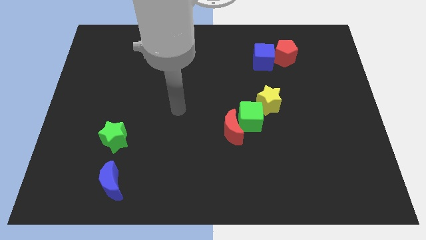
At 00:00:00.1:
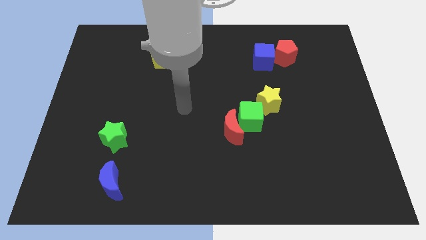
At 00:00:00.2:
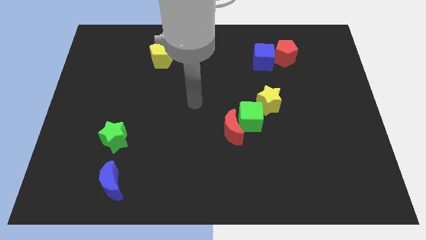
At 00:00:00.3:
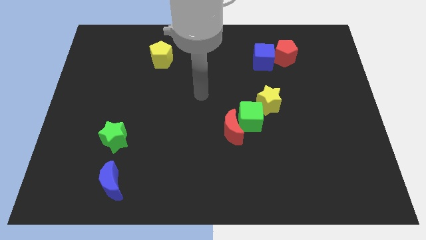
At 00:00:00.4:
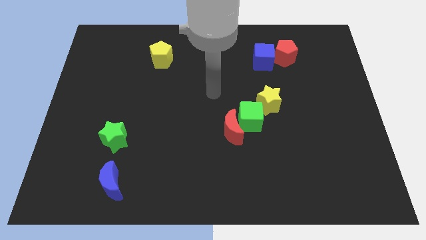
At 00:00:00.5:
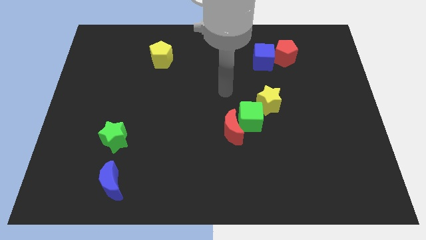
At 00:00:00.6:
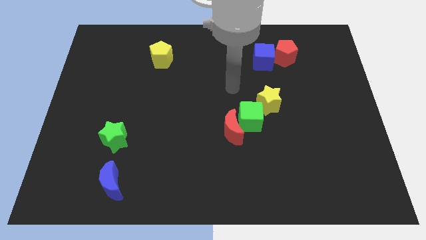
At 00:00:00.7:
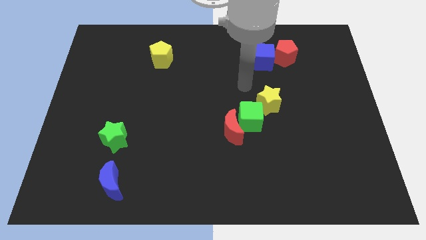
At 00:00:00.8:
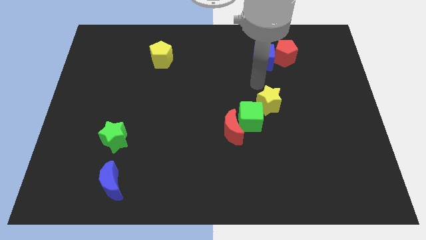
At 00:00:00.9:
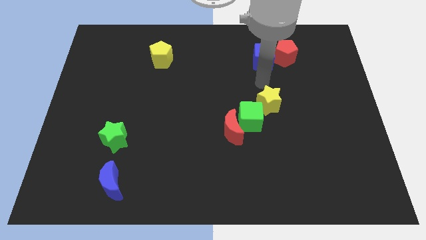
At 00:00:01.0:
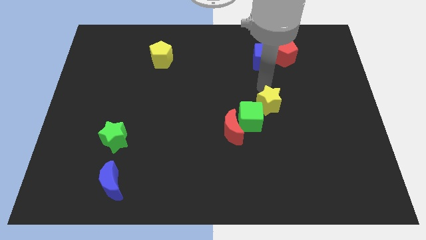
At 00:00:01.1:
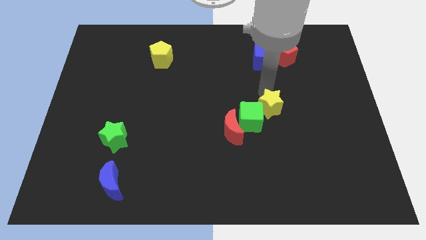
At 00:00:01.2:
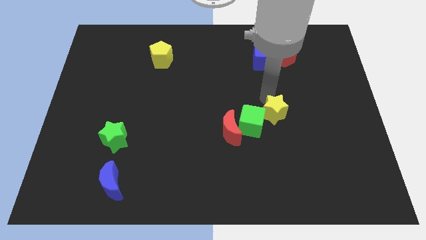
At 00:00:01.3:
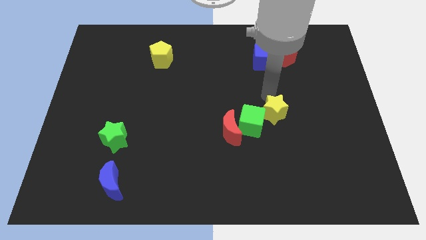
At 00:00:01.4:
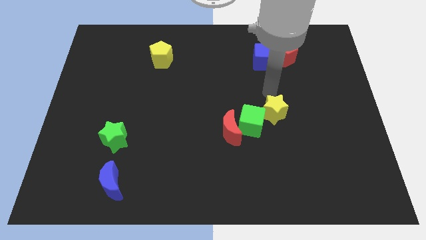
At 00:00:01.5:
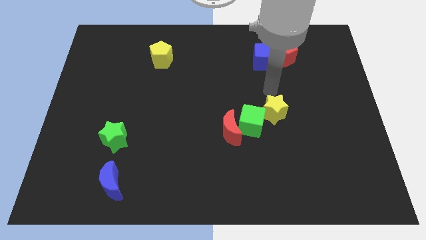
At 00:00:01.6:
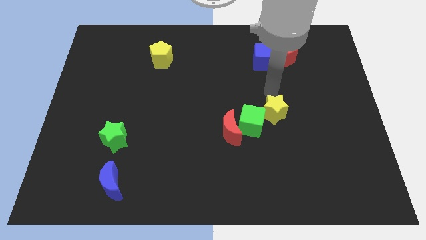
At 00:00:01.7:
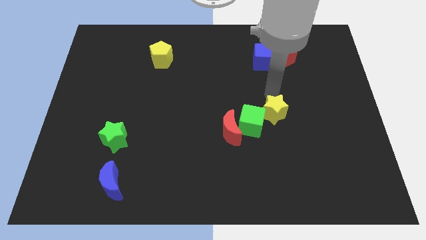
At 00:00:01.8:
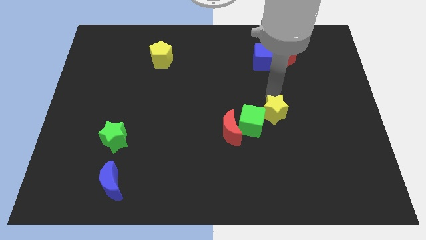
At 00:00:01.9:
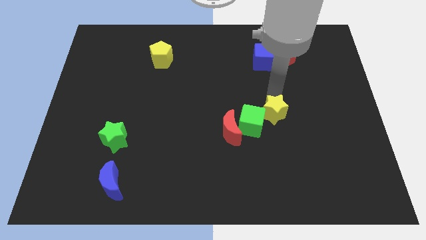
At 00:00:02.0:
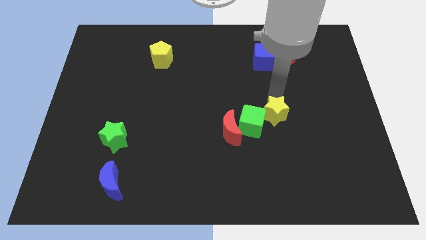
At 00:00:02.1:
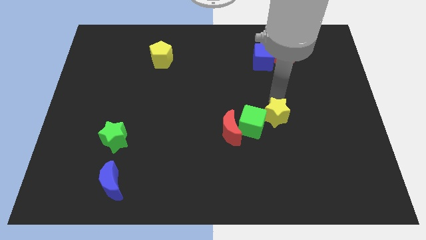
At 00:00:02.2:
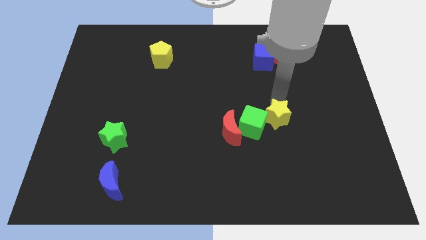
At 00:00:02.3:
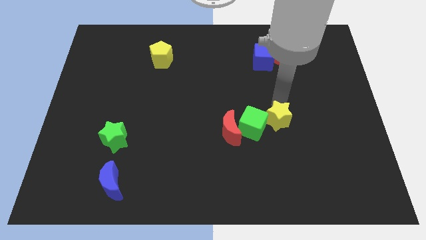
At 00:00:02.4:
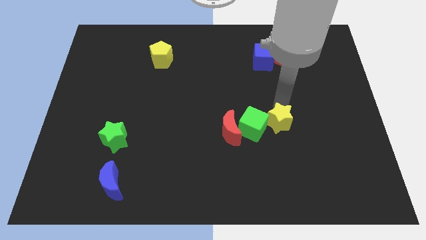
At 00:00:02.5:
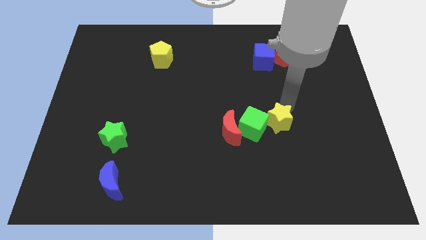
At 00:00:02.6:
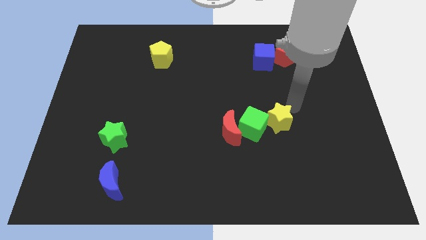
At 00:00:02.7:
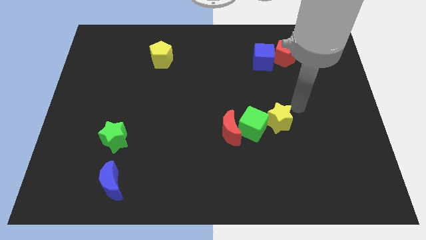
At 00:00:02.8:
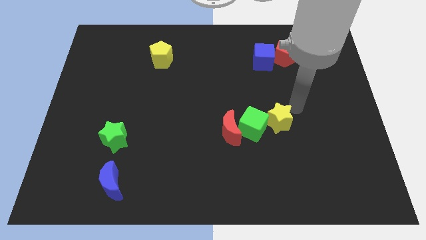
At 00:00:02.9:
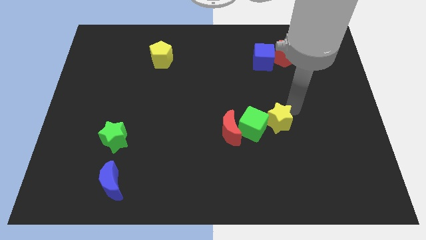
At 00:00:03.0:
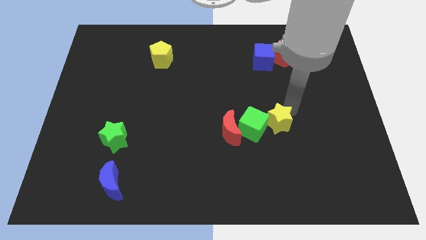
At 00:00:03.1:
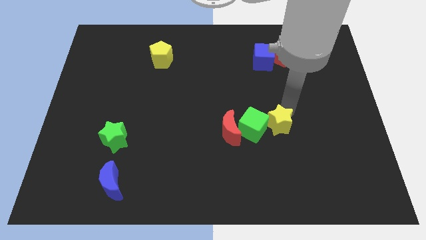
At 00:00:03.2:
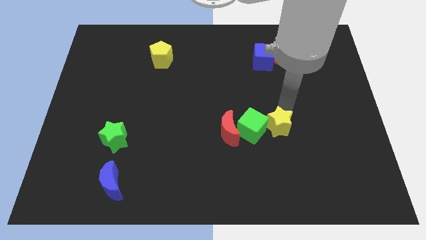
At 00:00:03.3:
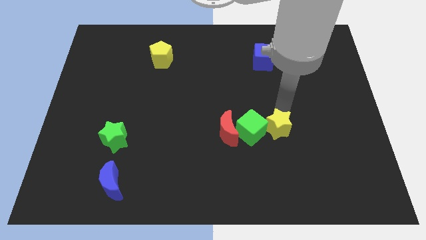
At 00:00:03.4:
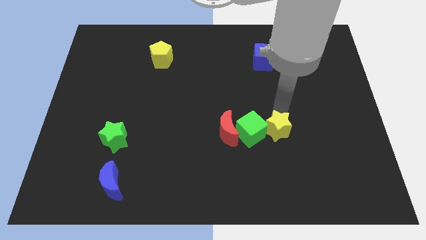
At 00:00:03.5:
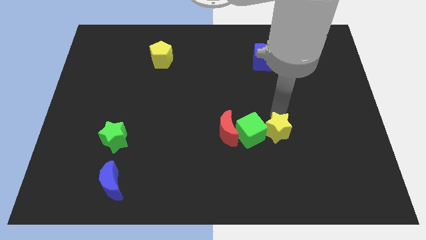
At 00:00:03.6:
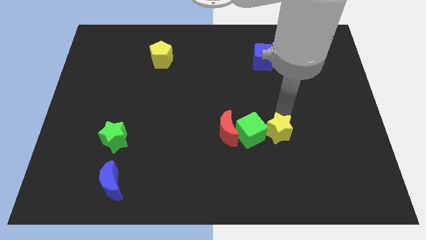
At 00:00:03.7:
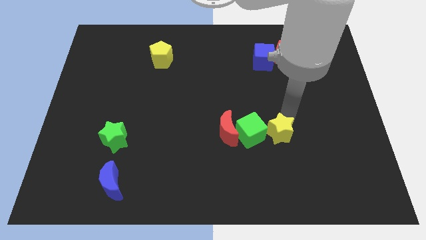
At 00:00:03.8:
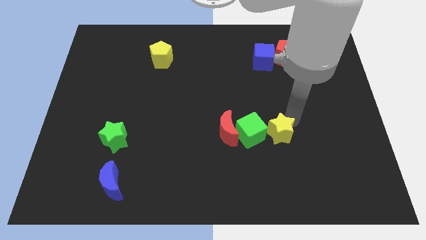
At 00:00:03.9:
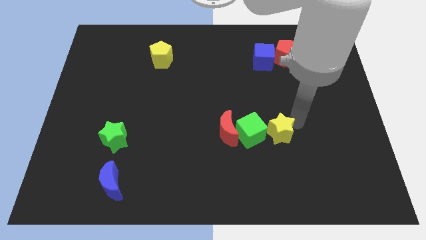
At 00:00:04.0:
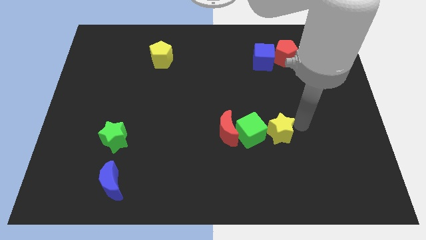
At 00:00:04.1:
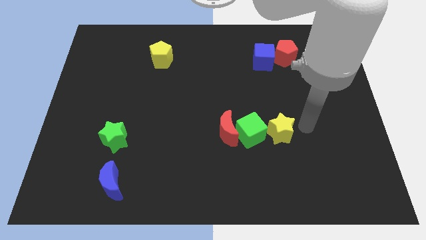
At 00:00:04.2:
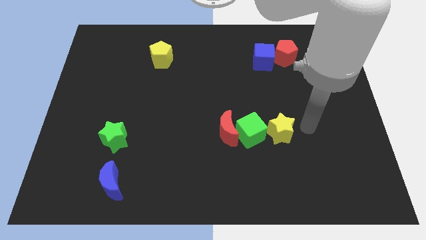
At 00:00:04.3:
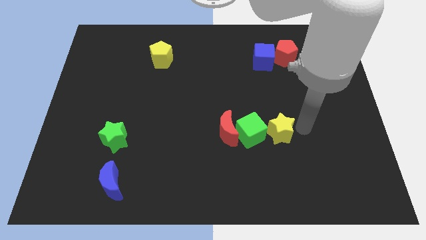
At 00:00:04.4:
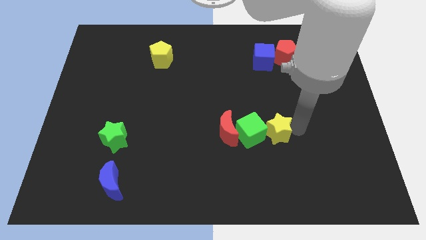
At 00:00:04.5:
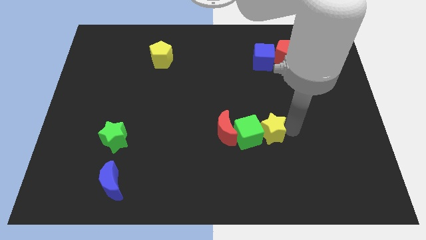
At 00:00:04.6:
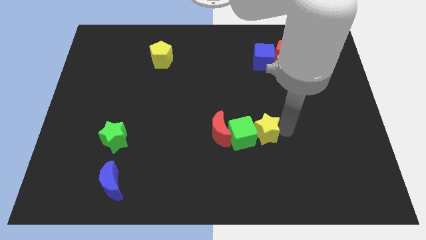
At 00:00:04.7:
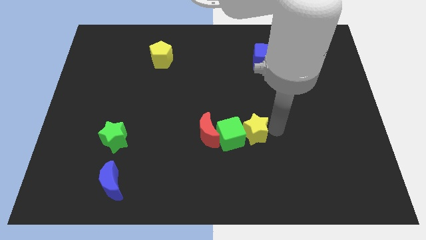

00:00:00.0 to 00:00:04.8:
slide the yellow star downwards and then to the left a little

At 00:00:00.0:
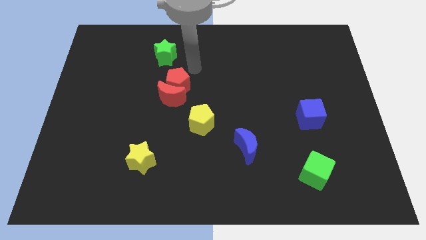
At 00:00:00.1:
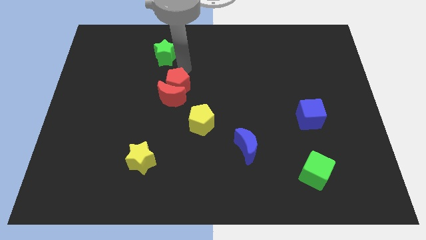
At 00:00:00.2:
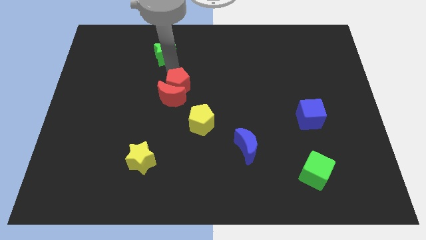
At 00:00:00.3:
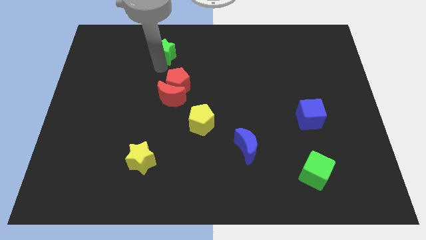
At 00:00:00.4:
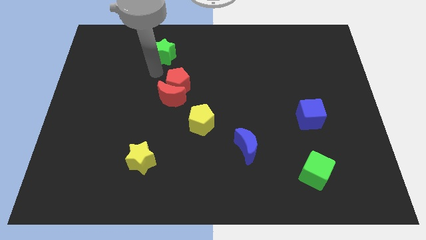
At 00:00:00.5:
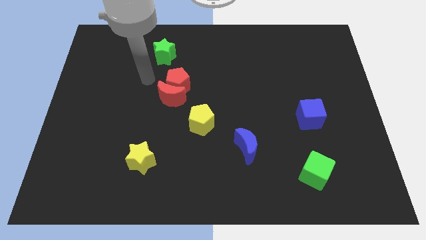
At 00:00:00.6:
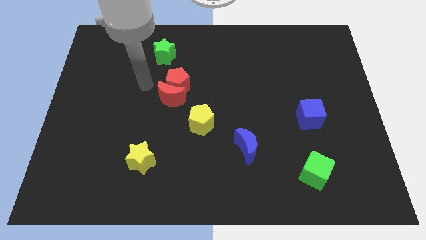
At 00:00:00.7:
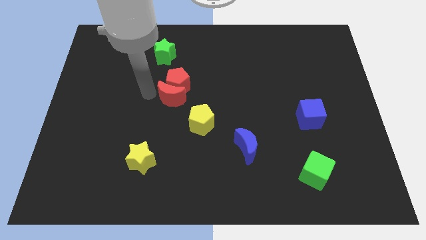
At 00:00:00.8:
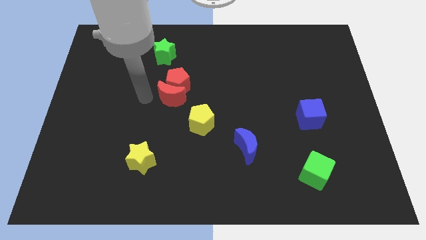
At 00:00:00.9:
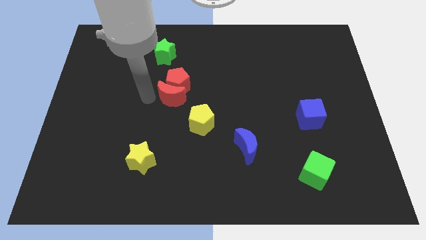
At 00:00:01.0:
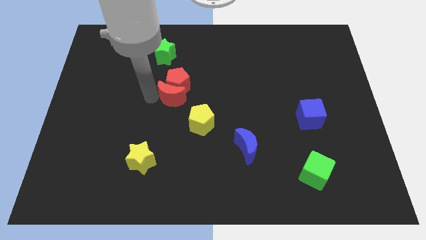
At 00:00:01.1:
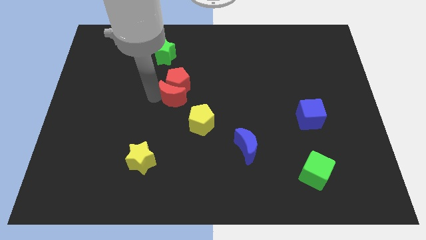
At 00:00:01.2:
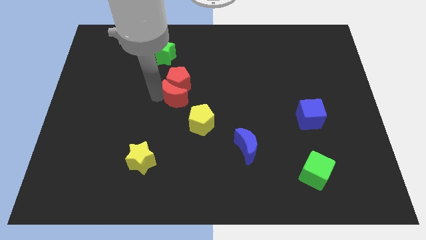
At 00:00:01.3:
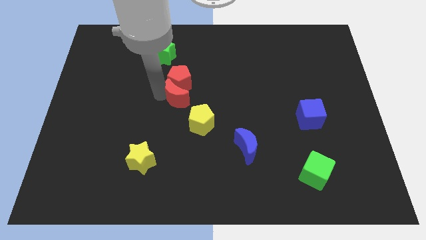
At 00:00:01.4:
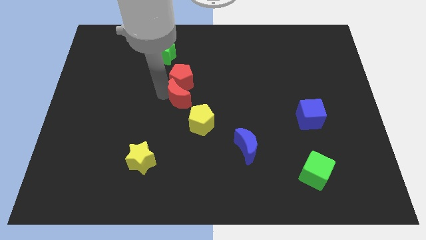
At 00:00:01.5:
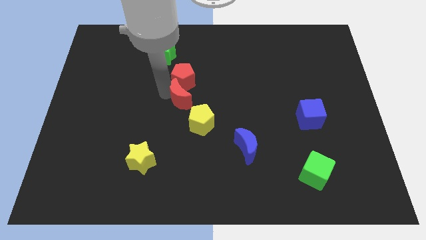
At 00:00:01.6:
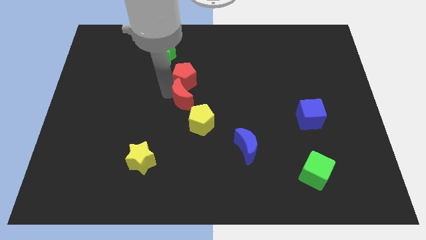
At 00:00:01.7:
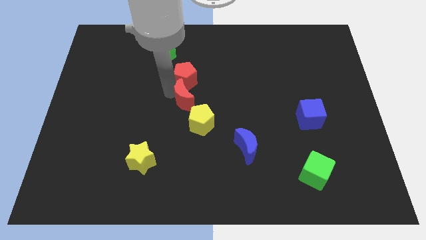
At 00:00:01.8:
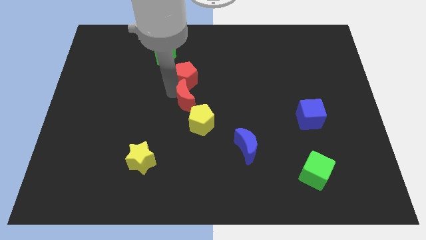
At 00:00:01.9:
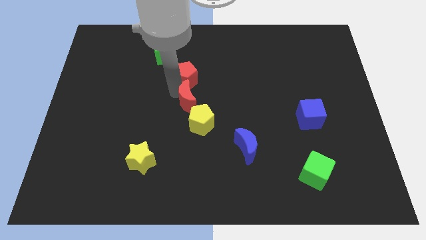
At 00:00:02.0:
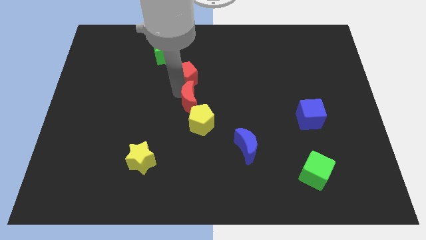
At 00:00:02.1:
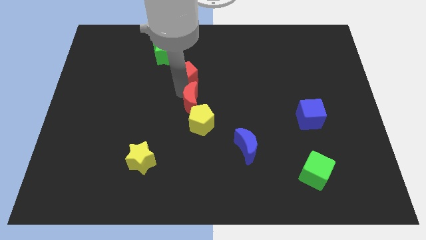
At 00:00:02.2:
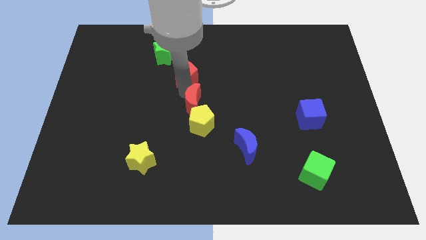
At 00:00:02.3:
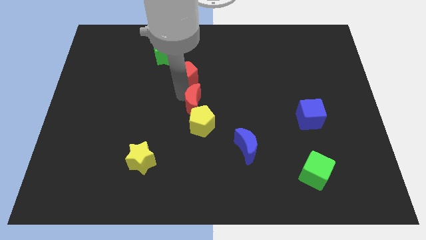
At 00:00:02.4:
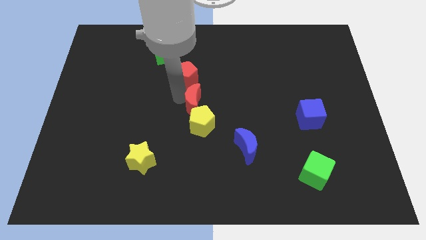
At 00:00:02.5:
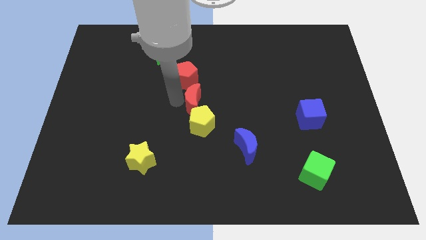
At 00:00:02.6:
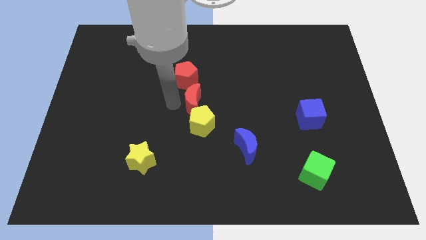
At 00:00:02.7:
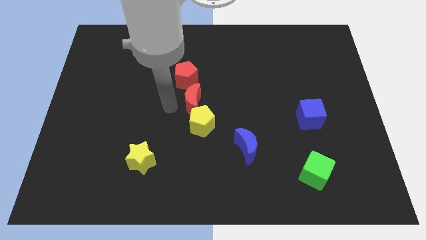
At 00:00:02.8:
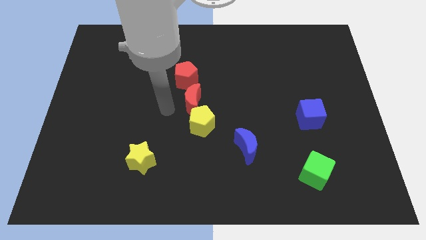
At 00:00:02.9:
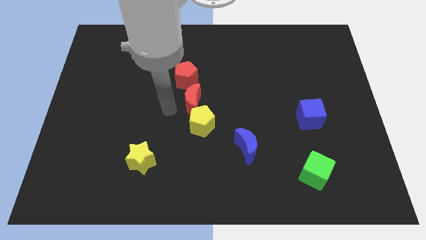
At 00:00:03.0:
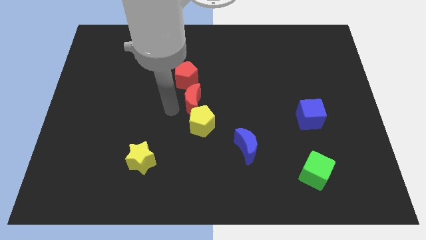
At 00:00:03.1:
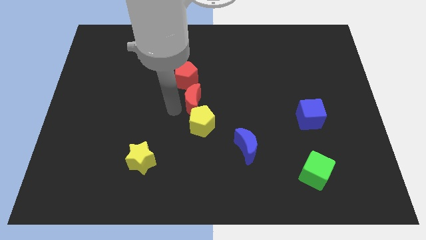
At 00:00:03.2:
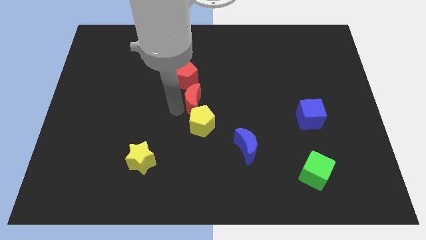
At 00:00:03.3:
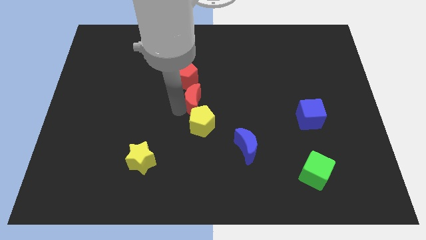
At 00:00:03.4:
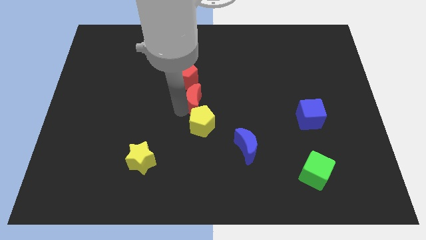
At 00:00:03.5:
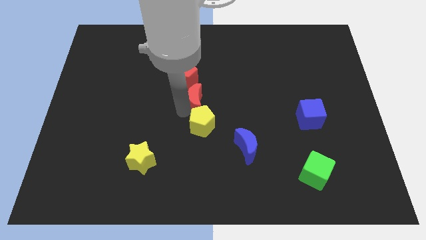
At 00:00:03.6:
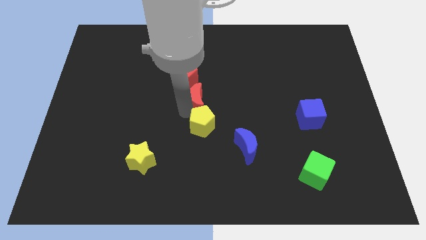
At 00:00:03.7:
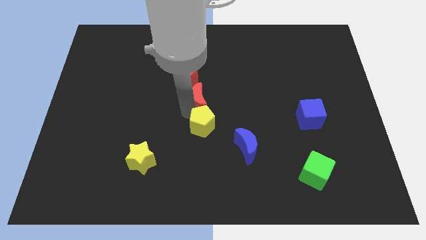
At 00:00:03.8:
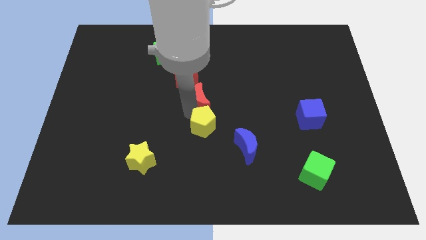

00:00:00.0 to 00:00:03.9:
slightly slide the red moon right
